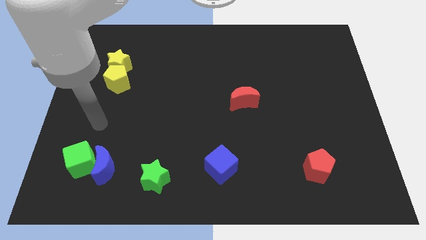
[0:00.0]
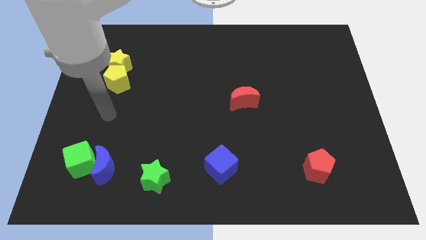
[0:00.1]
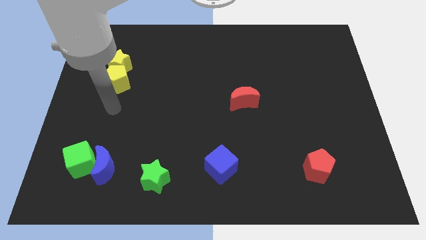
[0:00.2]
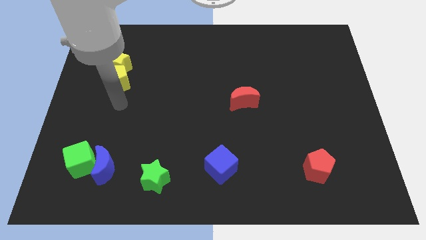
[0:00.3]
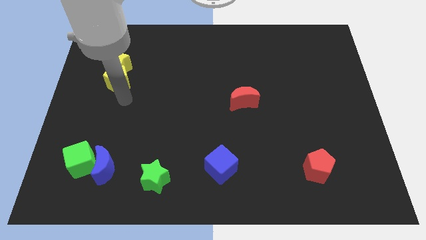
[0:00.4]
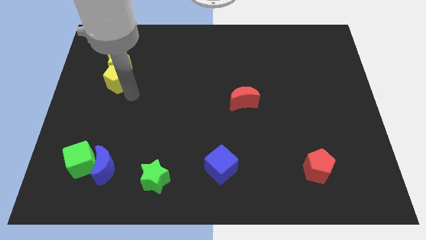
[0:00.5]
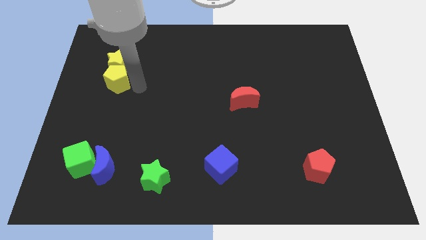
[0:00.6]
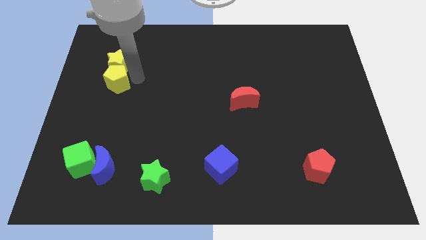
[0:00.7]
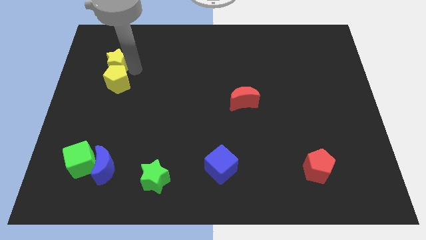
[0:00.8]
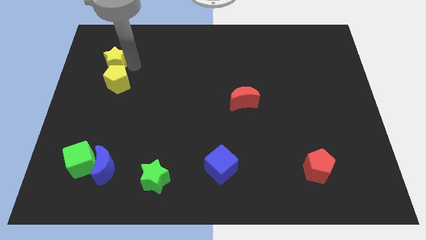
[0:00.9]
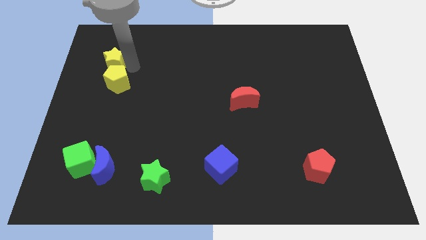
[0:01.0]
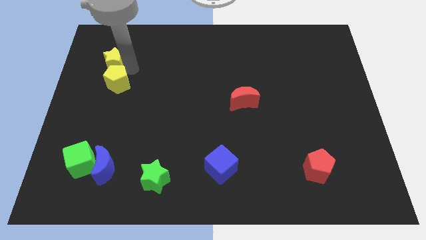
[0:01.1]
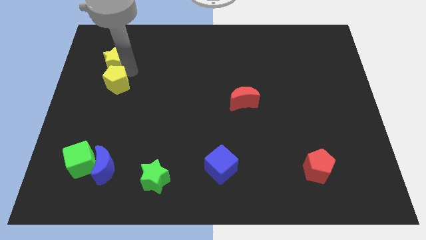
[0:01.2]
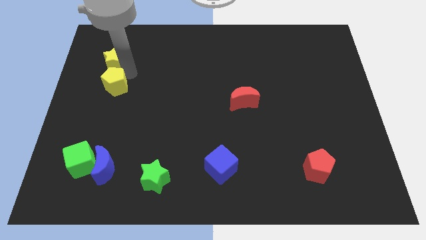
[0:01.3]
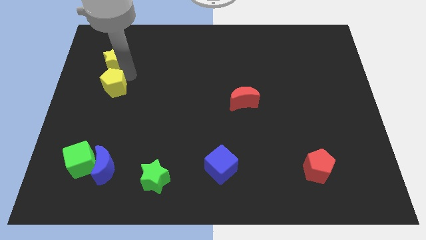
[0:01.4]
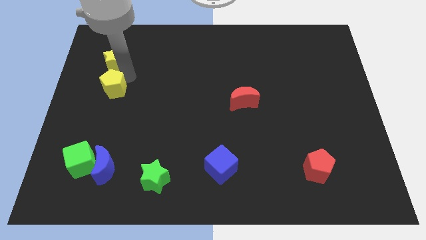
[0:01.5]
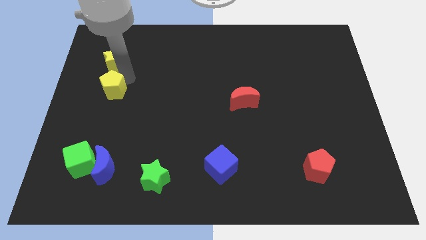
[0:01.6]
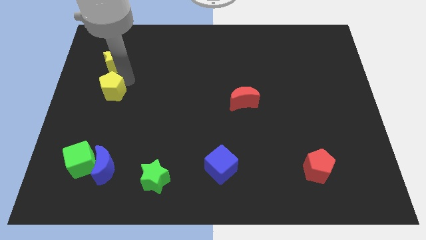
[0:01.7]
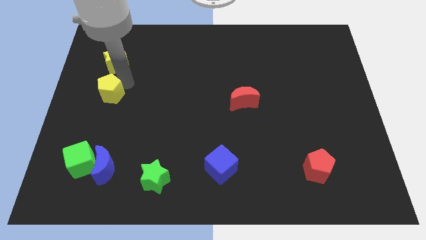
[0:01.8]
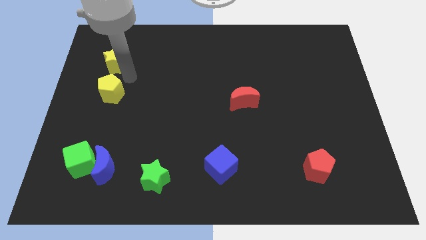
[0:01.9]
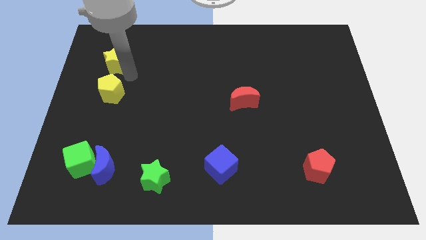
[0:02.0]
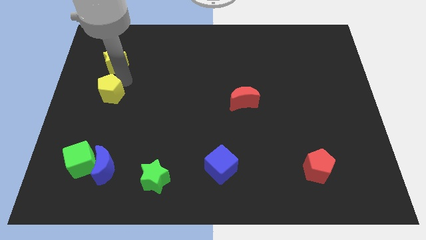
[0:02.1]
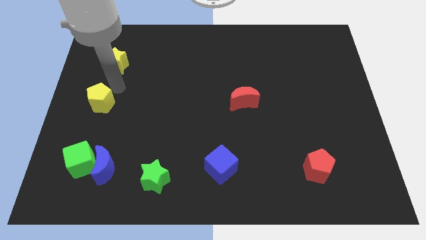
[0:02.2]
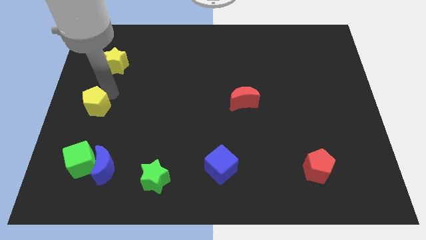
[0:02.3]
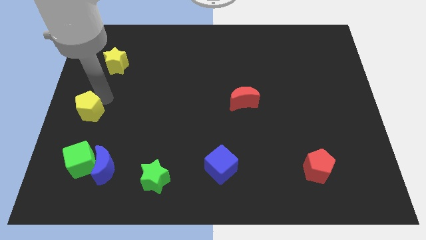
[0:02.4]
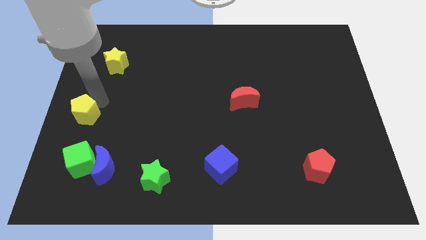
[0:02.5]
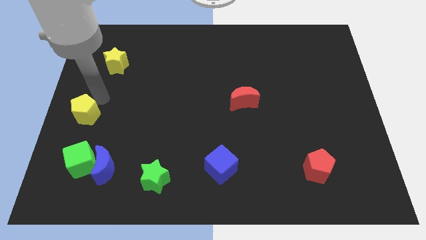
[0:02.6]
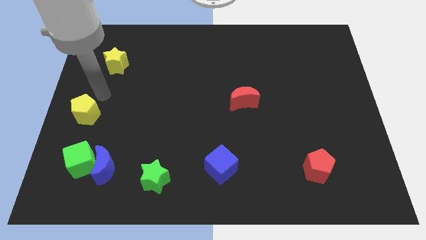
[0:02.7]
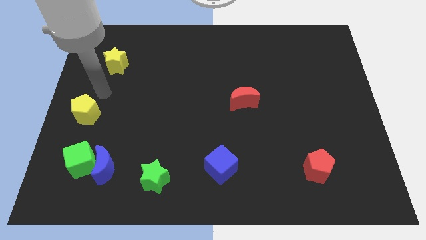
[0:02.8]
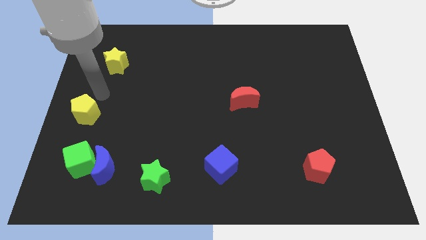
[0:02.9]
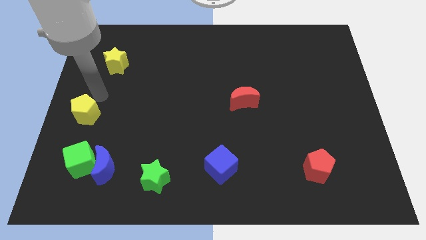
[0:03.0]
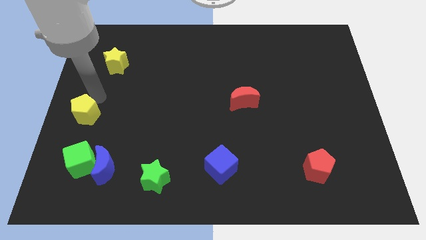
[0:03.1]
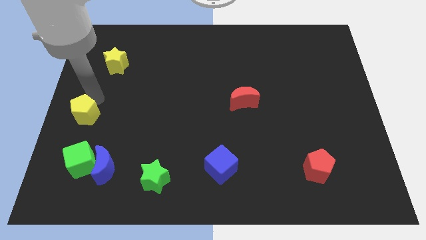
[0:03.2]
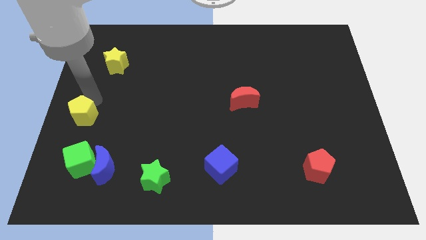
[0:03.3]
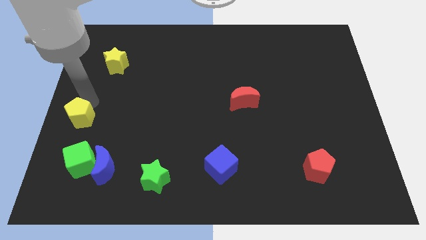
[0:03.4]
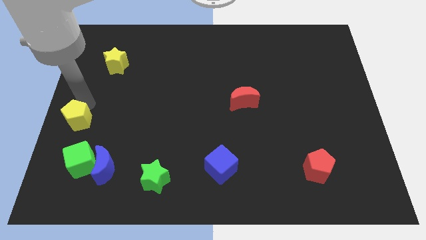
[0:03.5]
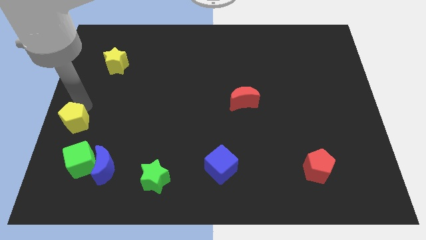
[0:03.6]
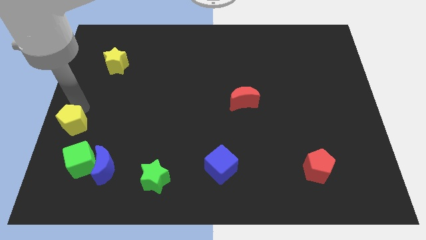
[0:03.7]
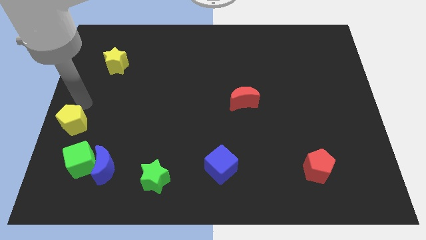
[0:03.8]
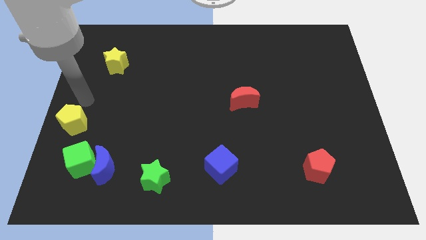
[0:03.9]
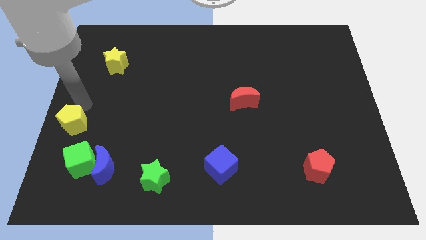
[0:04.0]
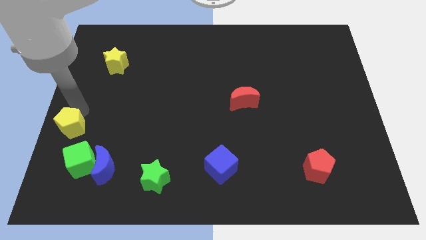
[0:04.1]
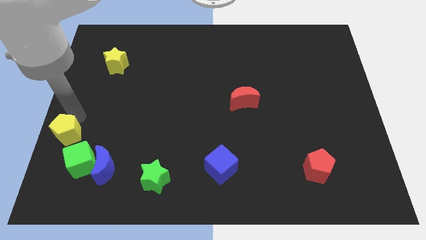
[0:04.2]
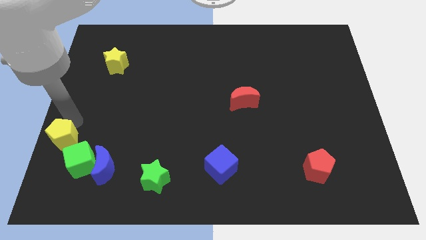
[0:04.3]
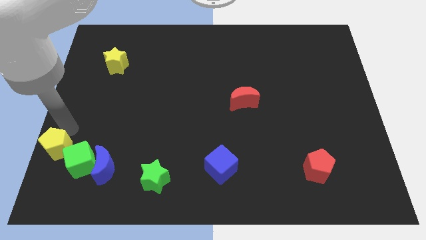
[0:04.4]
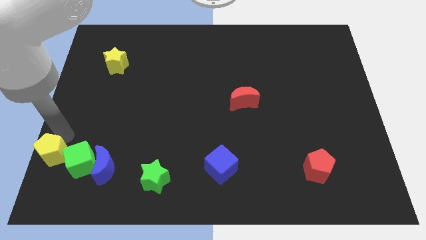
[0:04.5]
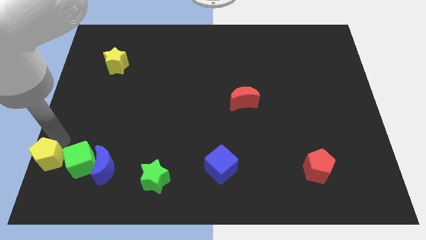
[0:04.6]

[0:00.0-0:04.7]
slide the yellow pentagon to the bottom left

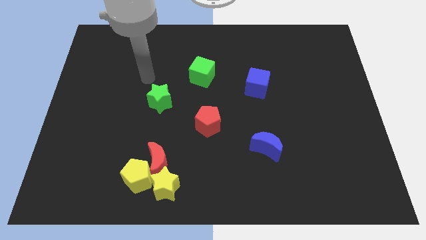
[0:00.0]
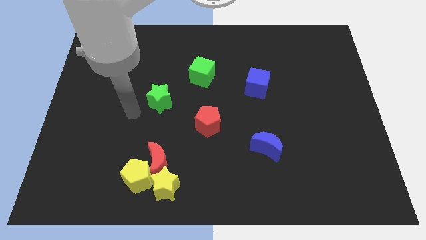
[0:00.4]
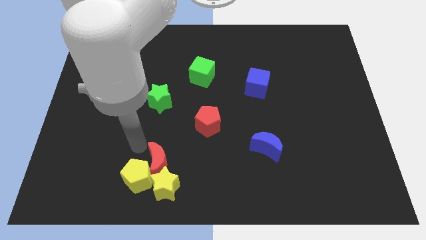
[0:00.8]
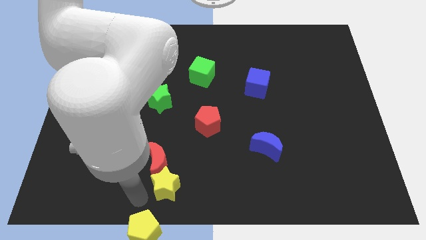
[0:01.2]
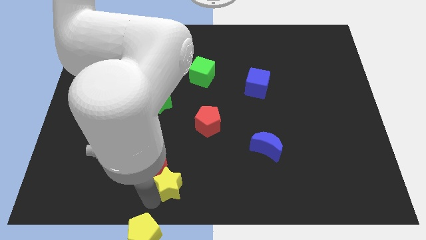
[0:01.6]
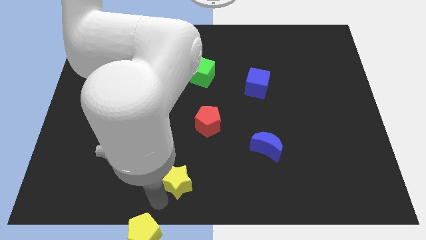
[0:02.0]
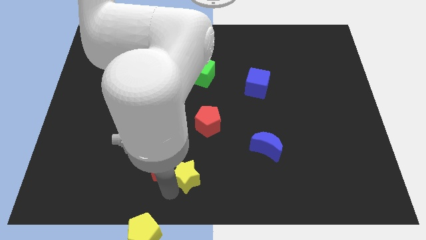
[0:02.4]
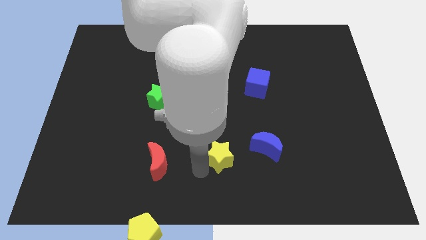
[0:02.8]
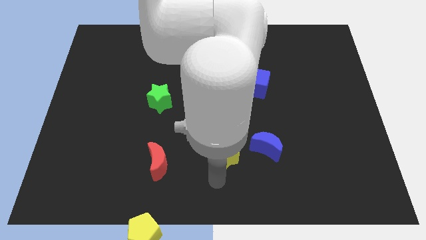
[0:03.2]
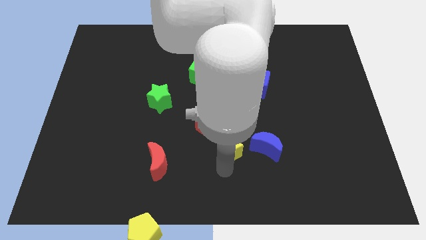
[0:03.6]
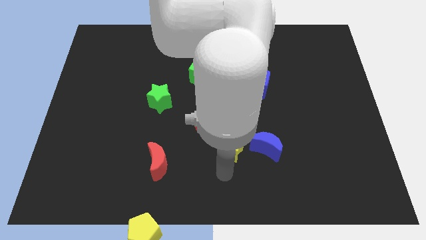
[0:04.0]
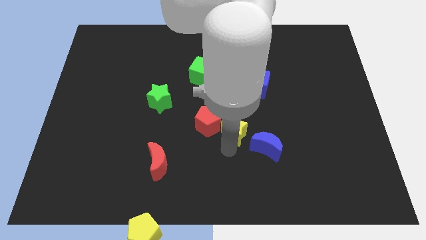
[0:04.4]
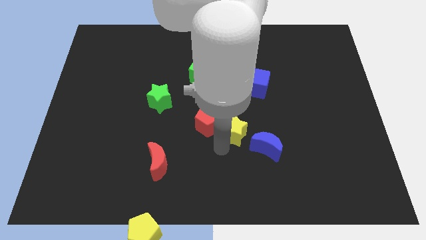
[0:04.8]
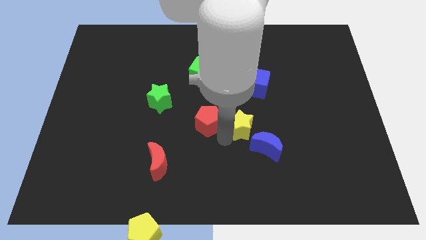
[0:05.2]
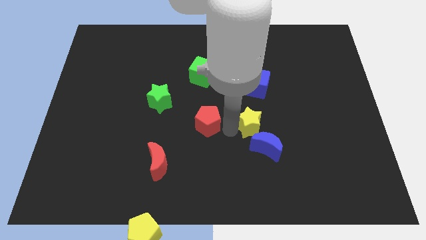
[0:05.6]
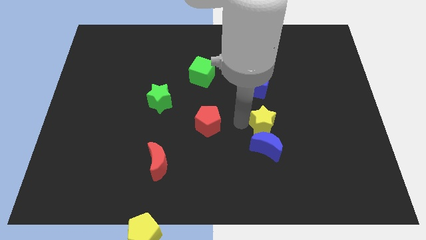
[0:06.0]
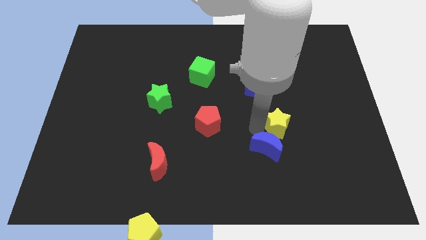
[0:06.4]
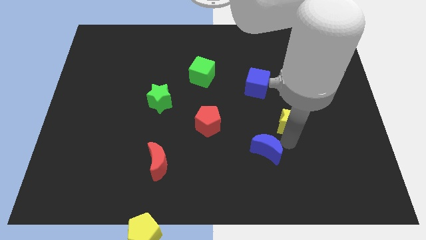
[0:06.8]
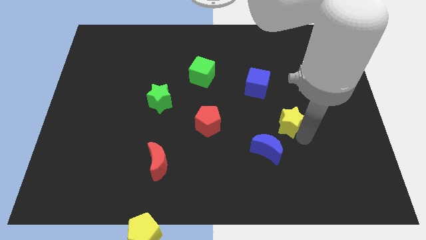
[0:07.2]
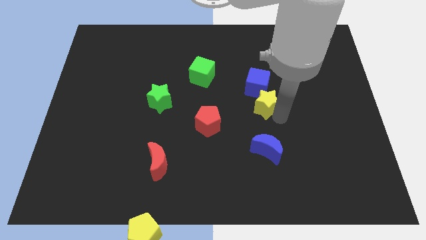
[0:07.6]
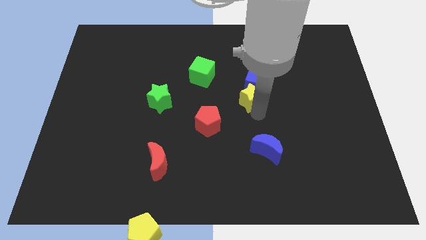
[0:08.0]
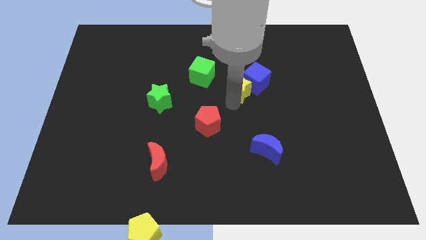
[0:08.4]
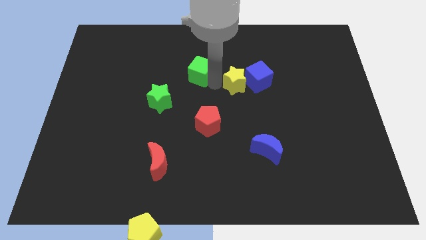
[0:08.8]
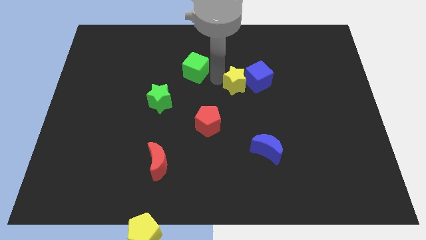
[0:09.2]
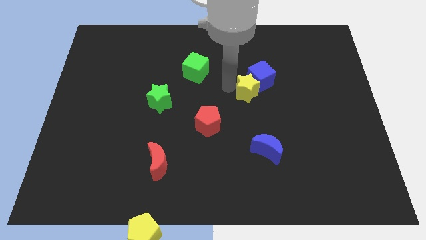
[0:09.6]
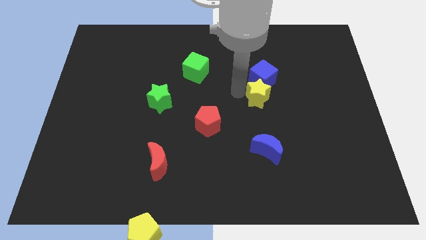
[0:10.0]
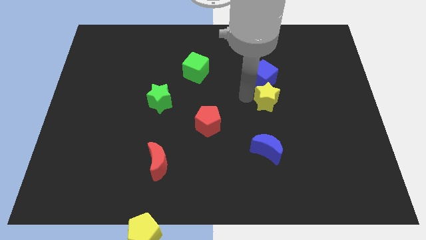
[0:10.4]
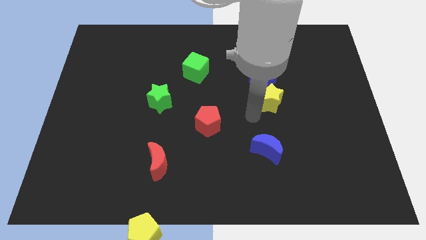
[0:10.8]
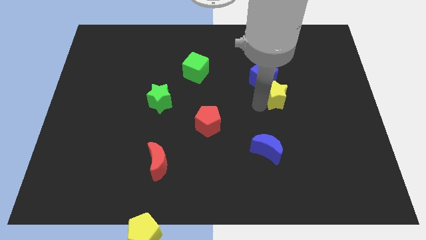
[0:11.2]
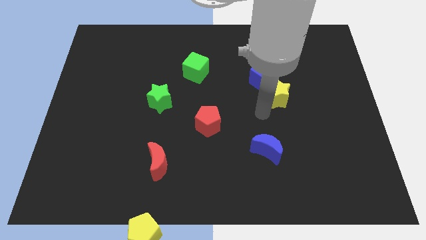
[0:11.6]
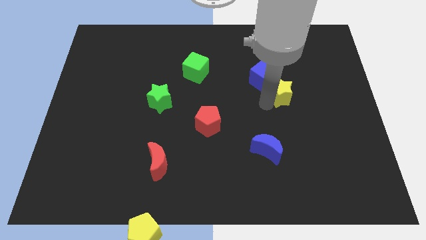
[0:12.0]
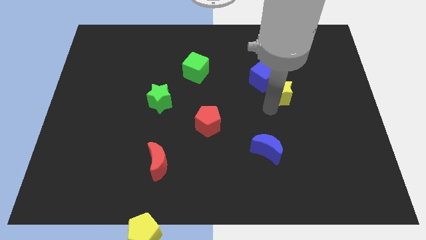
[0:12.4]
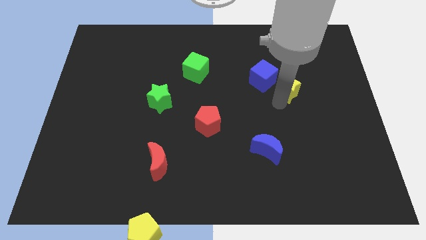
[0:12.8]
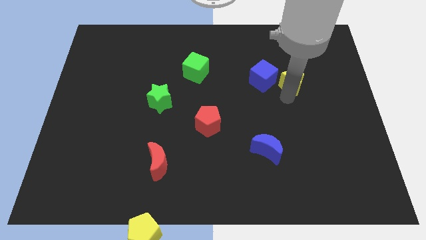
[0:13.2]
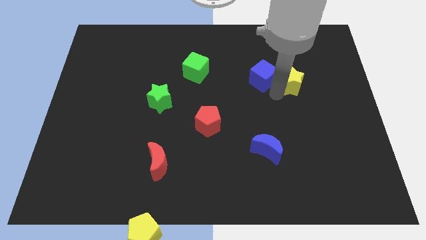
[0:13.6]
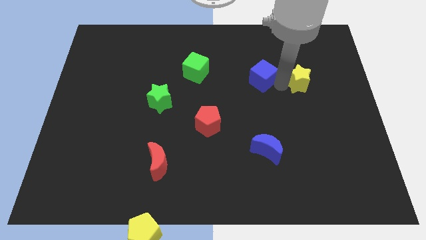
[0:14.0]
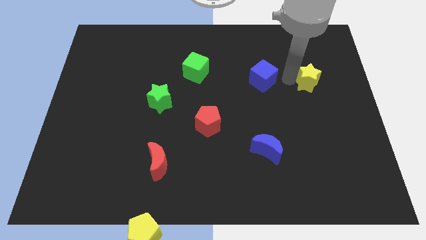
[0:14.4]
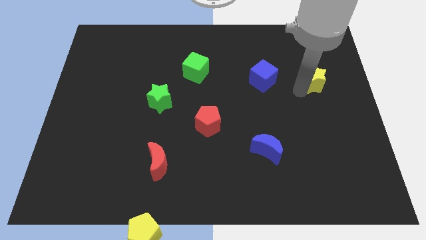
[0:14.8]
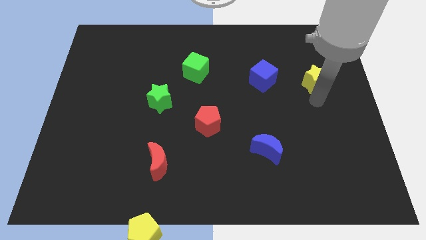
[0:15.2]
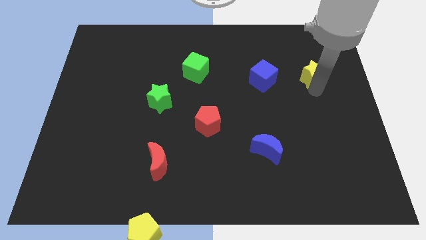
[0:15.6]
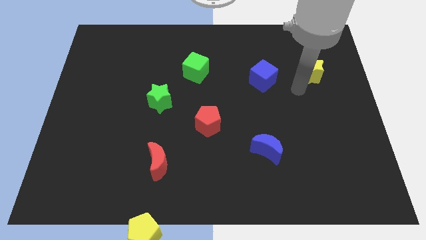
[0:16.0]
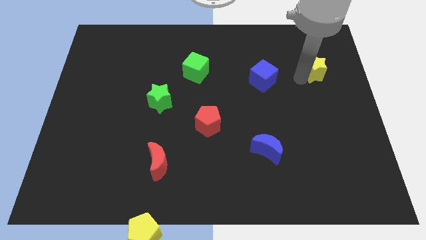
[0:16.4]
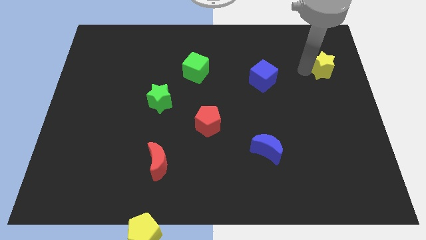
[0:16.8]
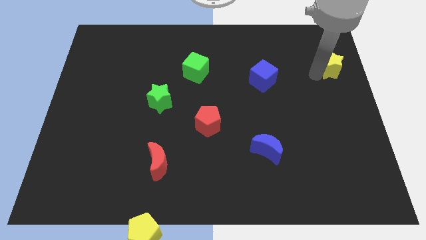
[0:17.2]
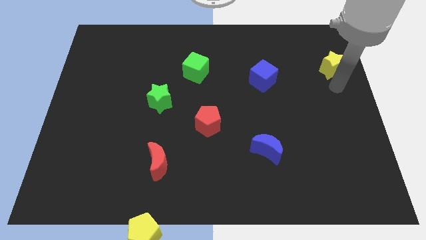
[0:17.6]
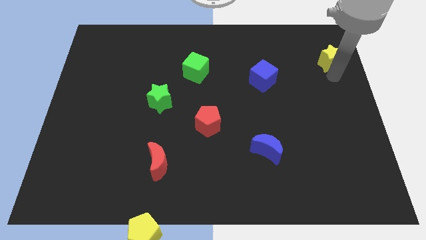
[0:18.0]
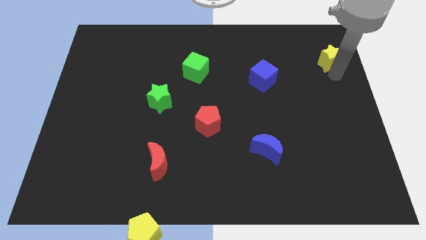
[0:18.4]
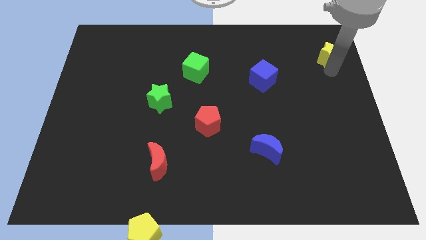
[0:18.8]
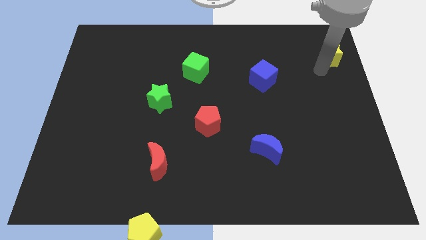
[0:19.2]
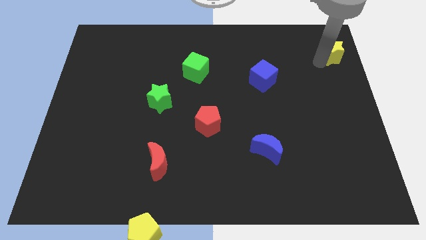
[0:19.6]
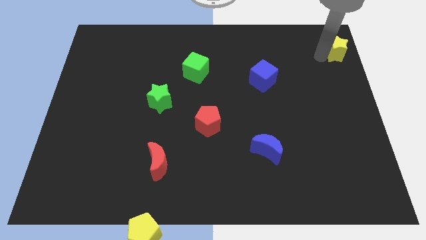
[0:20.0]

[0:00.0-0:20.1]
move the yellow star to the top right corner
